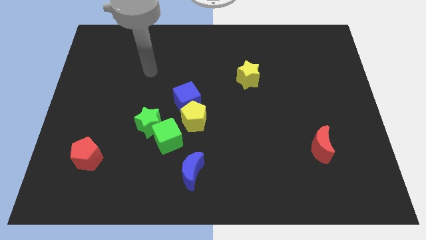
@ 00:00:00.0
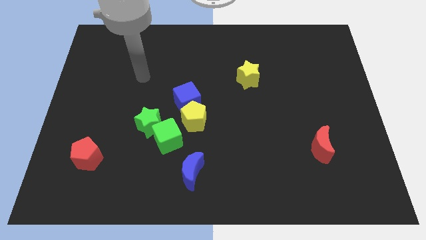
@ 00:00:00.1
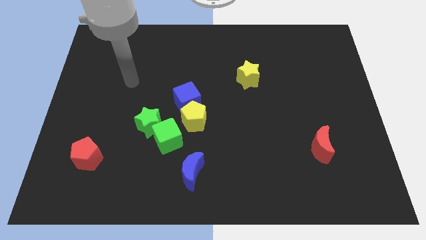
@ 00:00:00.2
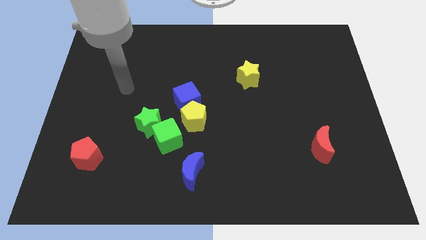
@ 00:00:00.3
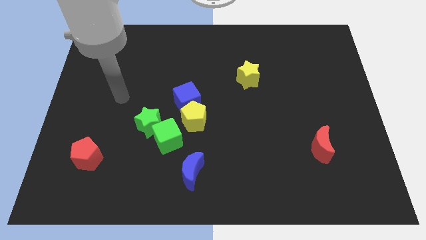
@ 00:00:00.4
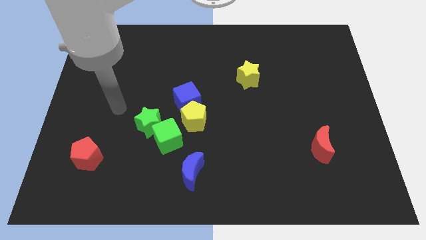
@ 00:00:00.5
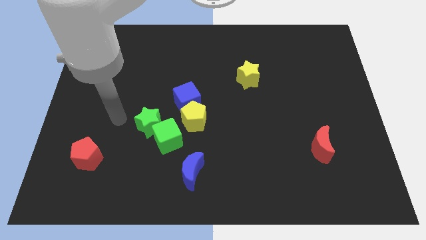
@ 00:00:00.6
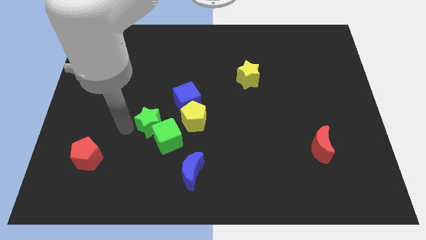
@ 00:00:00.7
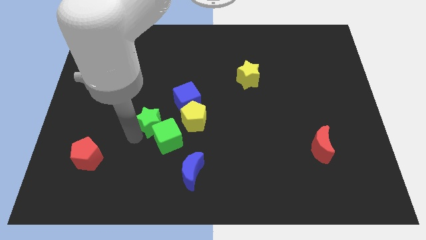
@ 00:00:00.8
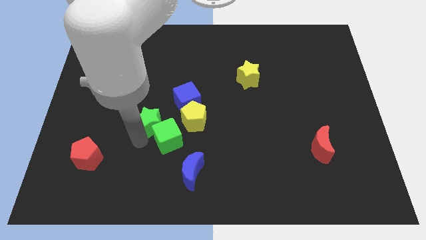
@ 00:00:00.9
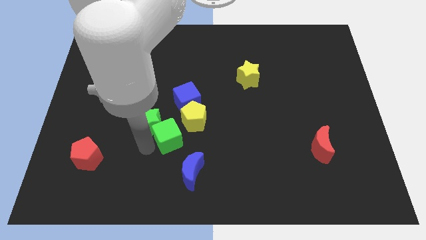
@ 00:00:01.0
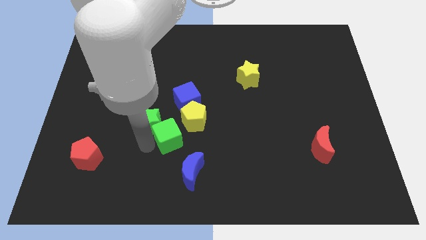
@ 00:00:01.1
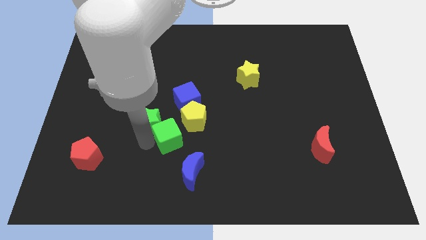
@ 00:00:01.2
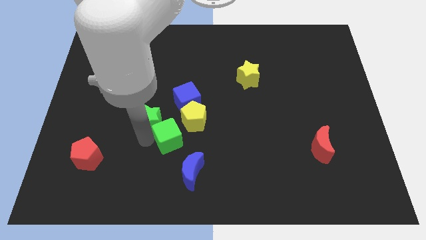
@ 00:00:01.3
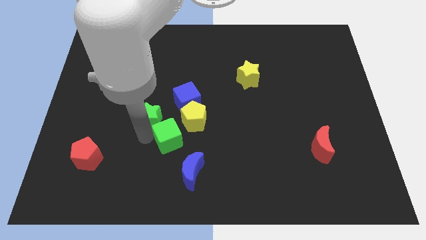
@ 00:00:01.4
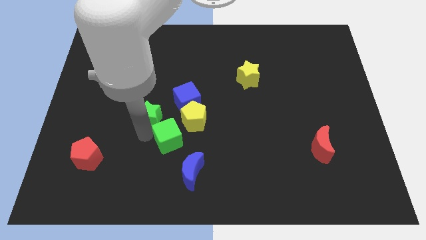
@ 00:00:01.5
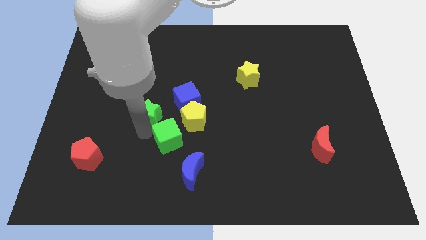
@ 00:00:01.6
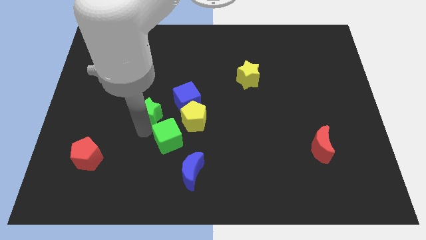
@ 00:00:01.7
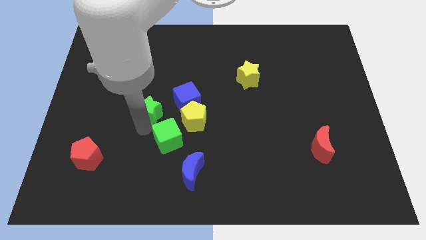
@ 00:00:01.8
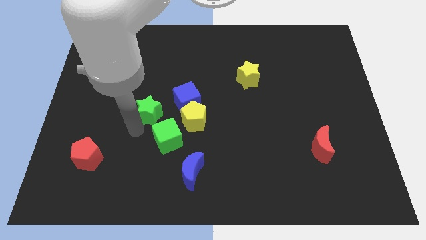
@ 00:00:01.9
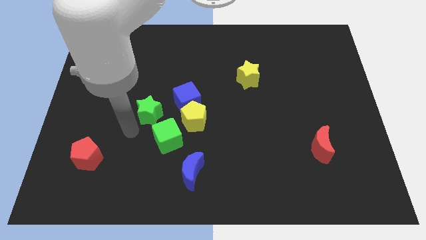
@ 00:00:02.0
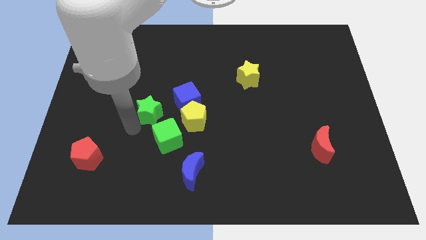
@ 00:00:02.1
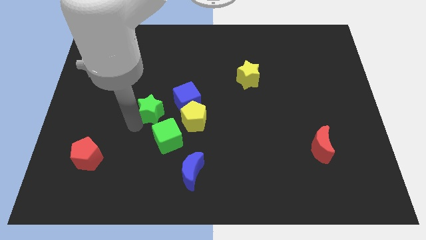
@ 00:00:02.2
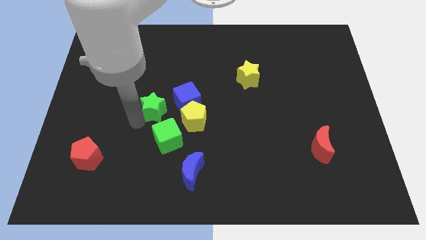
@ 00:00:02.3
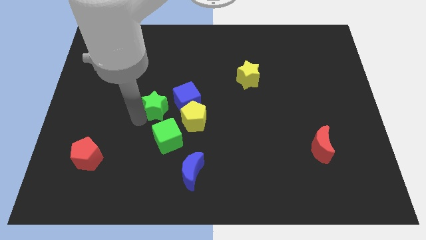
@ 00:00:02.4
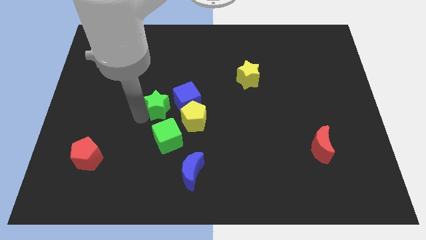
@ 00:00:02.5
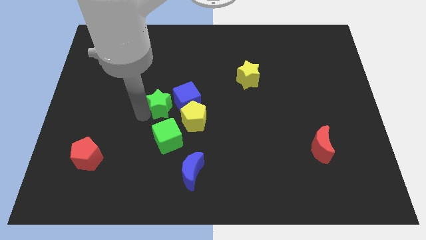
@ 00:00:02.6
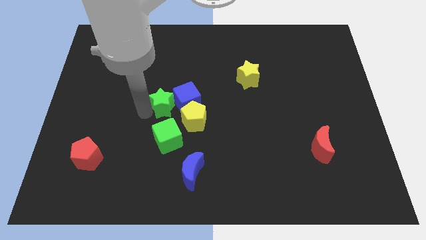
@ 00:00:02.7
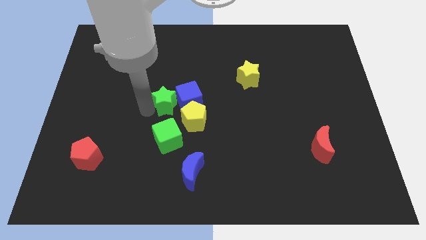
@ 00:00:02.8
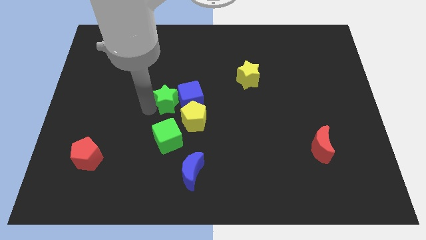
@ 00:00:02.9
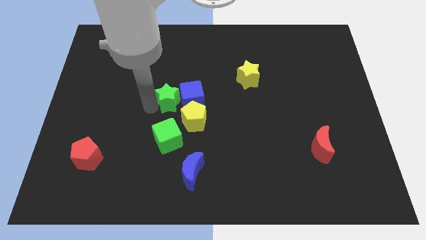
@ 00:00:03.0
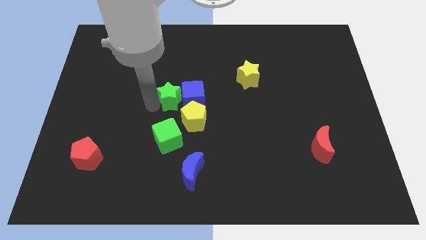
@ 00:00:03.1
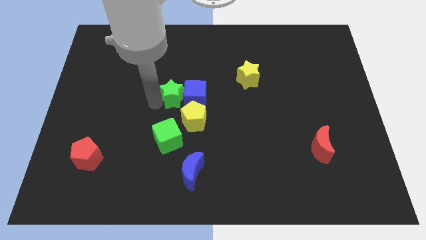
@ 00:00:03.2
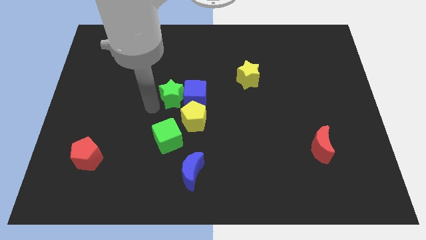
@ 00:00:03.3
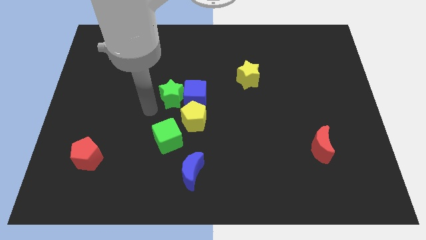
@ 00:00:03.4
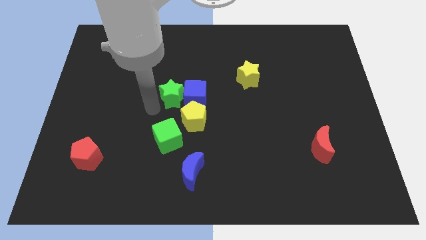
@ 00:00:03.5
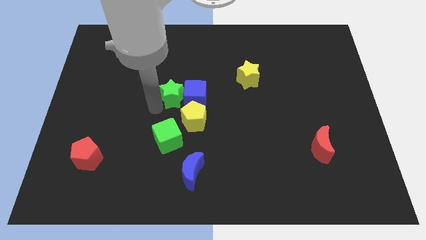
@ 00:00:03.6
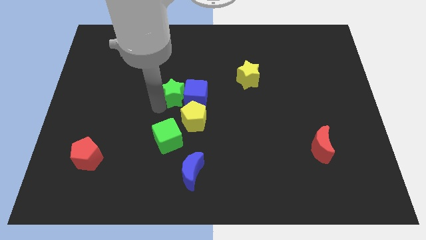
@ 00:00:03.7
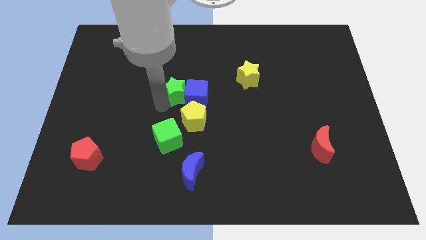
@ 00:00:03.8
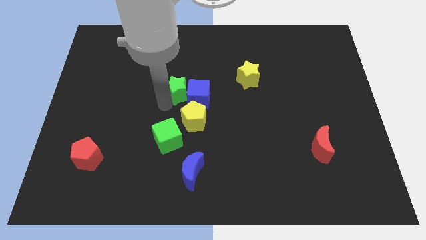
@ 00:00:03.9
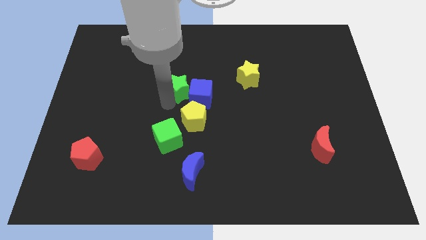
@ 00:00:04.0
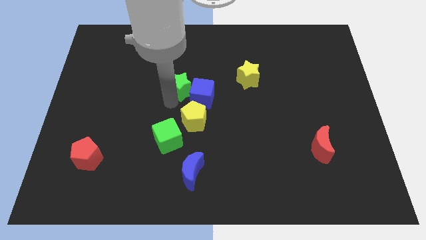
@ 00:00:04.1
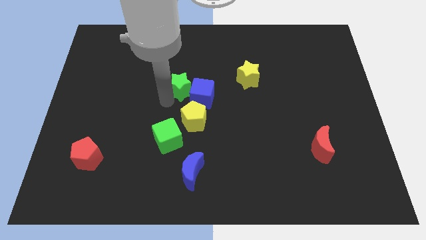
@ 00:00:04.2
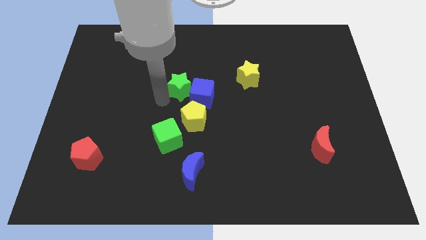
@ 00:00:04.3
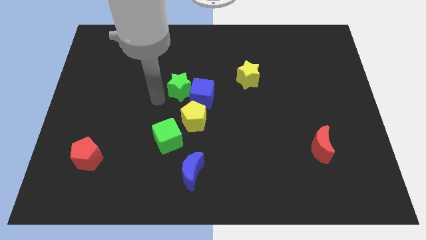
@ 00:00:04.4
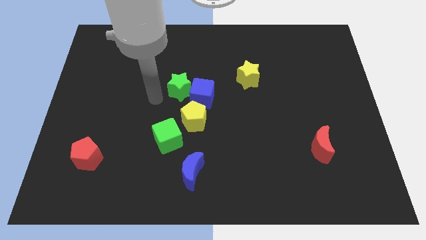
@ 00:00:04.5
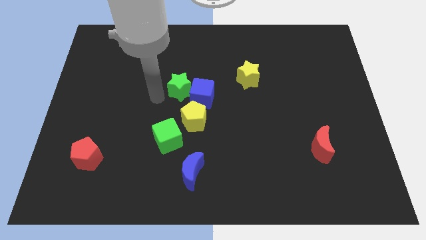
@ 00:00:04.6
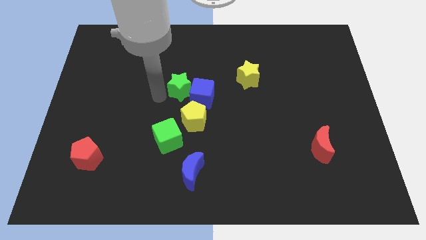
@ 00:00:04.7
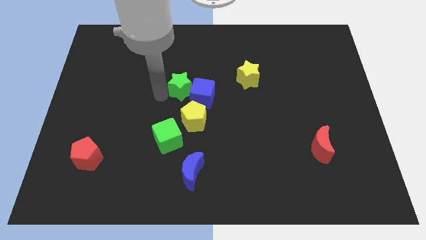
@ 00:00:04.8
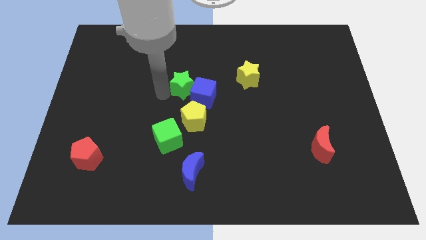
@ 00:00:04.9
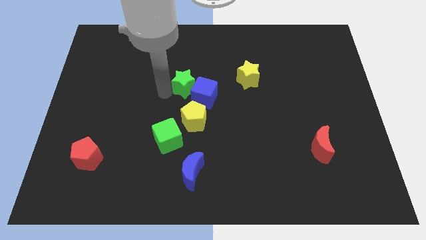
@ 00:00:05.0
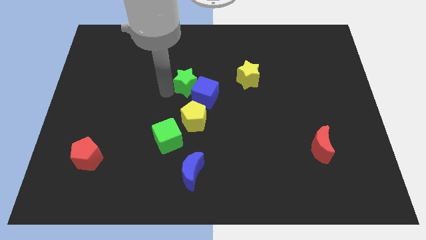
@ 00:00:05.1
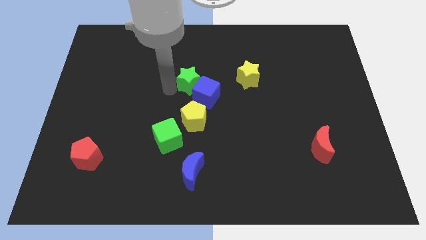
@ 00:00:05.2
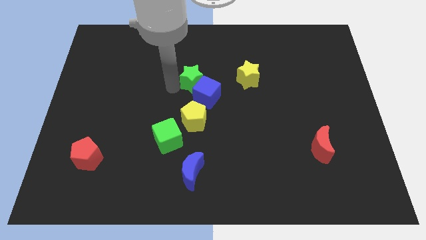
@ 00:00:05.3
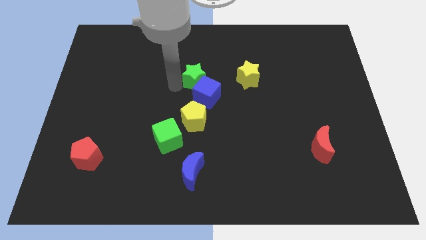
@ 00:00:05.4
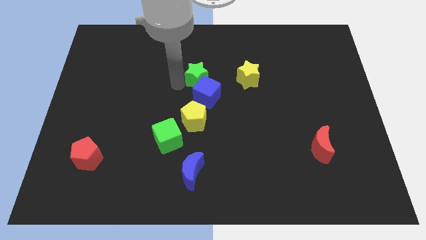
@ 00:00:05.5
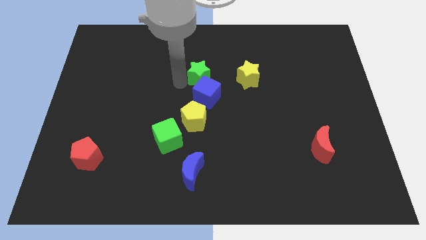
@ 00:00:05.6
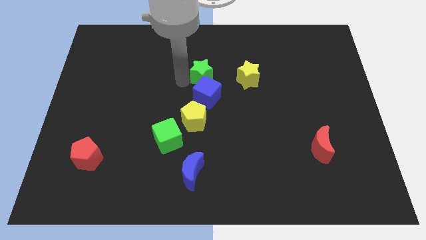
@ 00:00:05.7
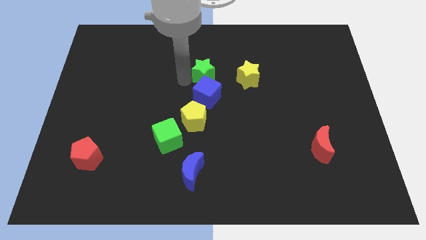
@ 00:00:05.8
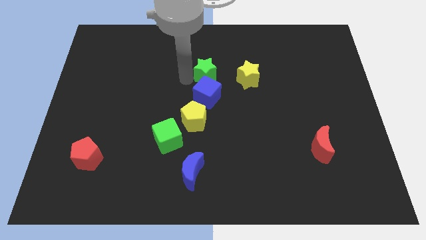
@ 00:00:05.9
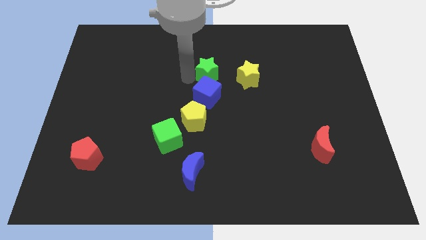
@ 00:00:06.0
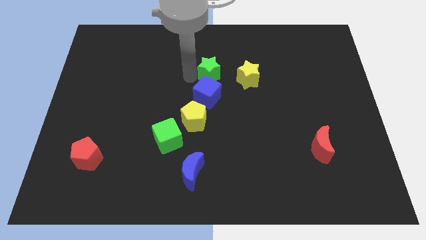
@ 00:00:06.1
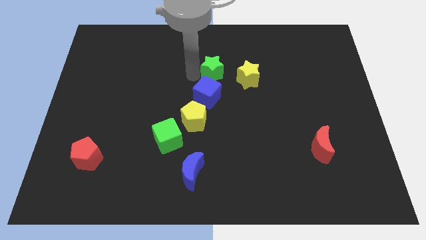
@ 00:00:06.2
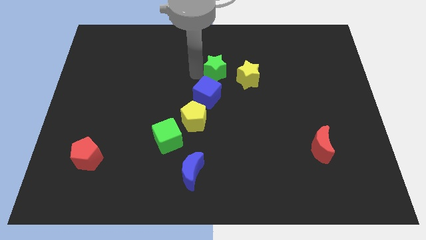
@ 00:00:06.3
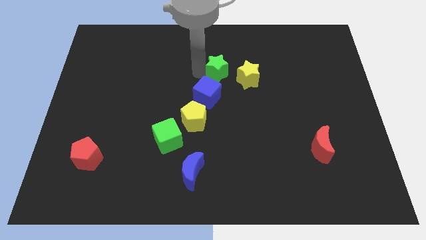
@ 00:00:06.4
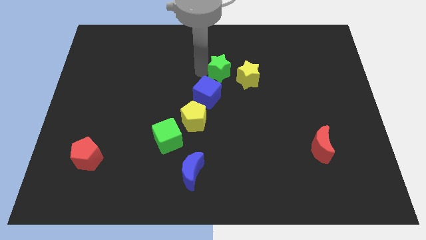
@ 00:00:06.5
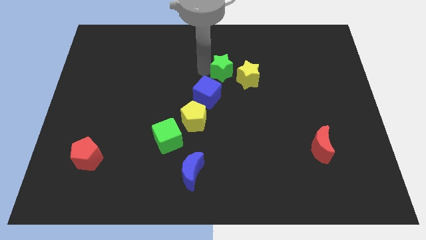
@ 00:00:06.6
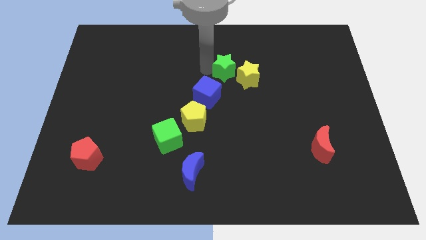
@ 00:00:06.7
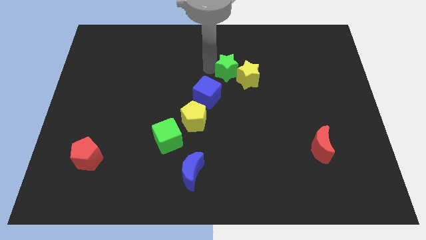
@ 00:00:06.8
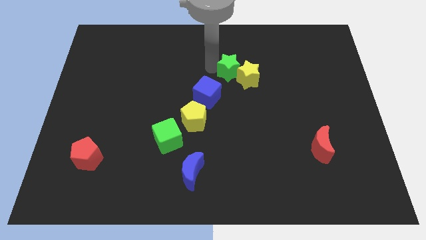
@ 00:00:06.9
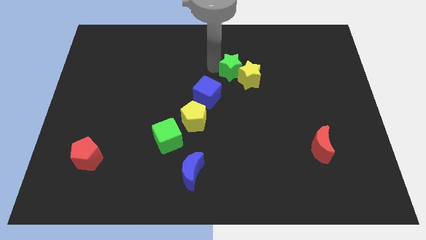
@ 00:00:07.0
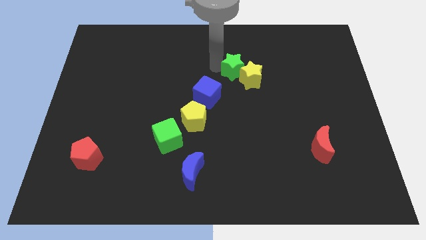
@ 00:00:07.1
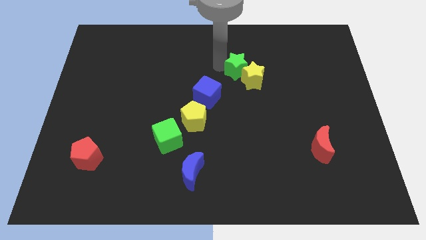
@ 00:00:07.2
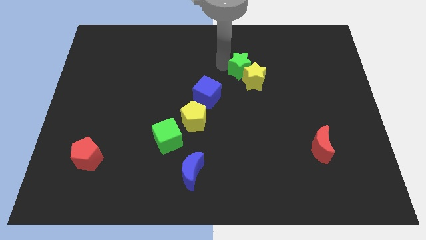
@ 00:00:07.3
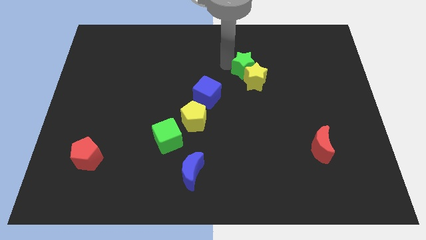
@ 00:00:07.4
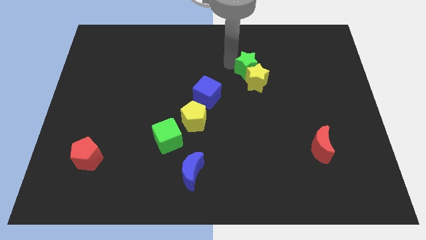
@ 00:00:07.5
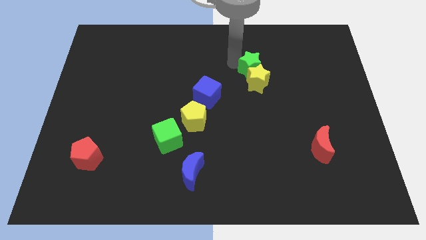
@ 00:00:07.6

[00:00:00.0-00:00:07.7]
put the green star to the top right side of the yellow star
